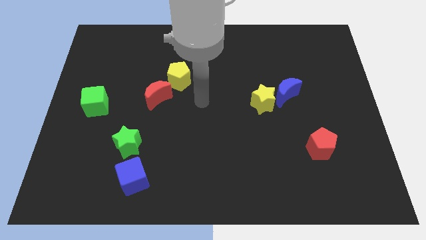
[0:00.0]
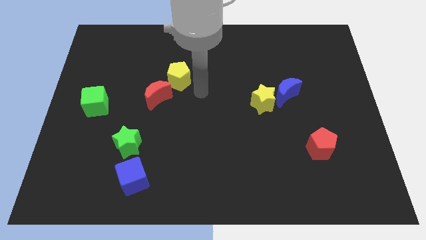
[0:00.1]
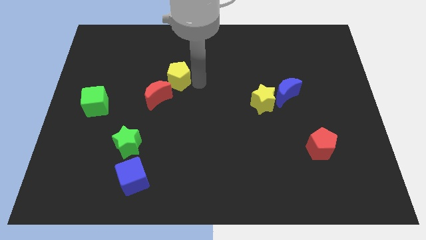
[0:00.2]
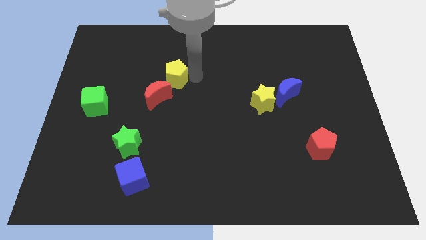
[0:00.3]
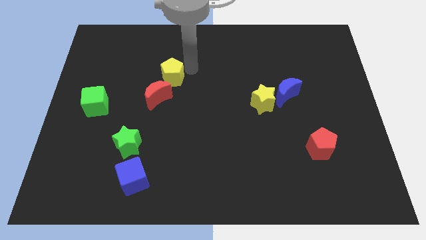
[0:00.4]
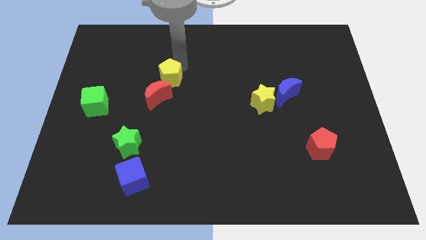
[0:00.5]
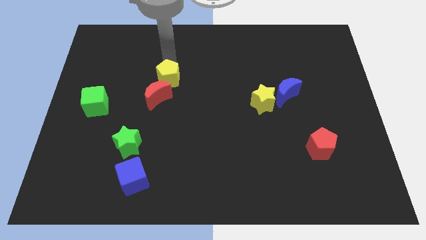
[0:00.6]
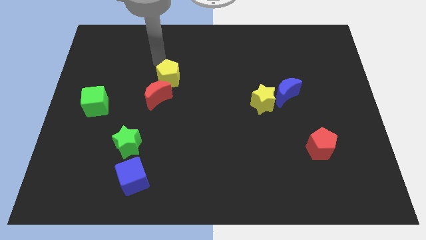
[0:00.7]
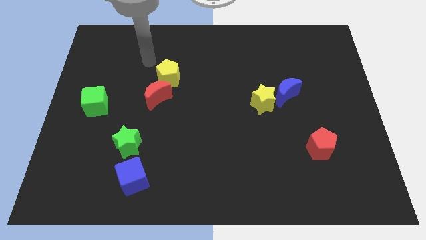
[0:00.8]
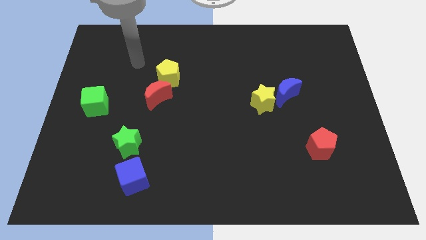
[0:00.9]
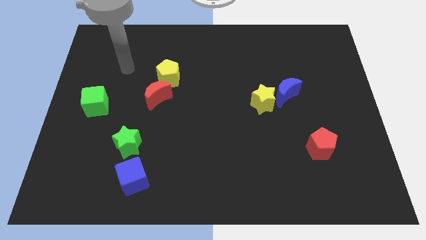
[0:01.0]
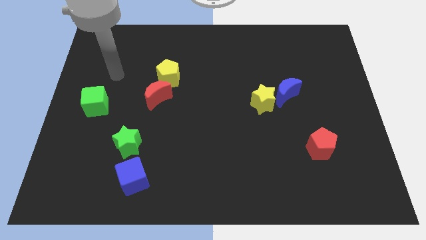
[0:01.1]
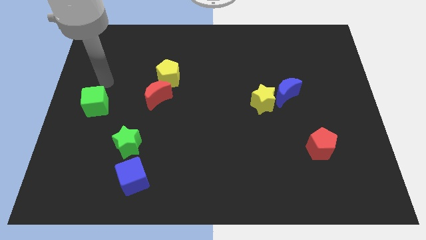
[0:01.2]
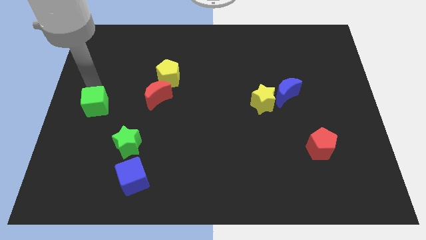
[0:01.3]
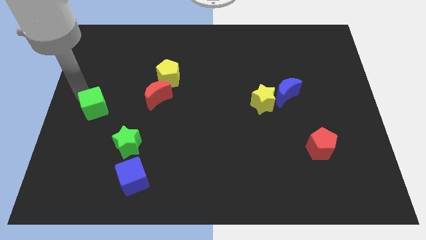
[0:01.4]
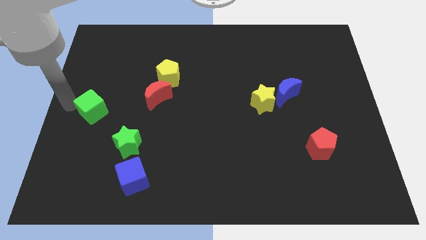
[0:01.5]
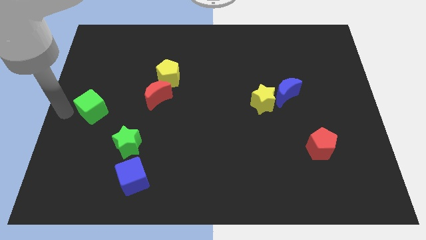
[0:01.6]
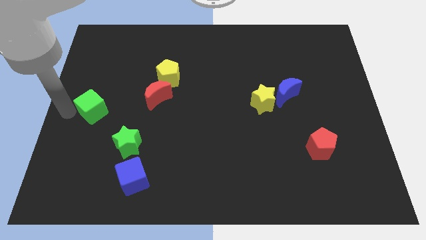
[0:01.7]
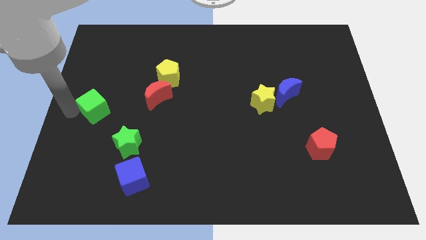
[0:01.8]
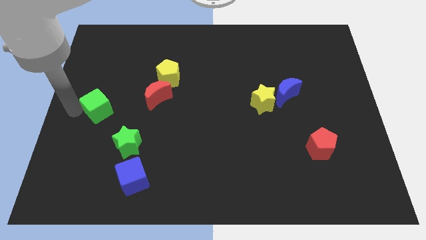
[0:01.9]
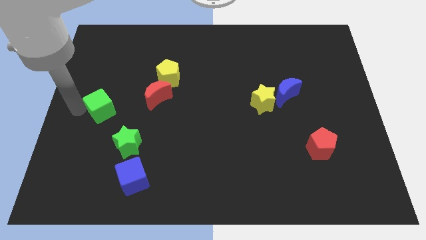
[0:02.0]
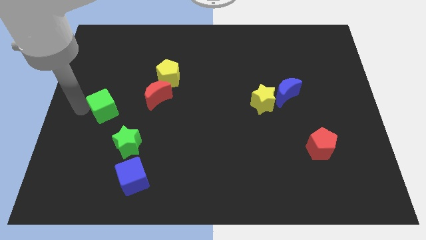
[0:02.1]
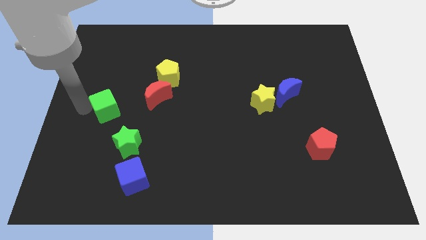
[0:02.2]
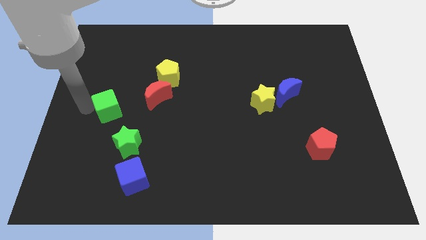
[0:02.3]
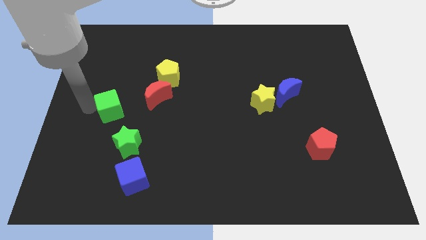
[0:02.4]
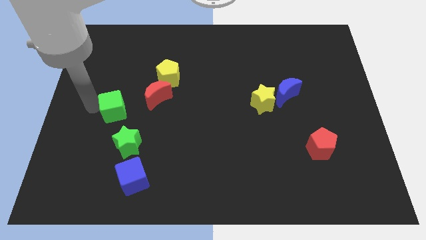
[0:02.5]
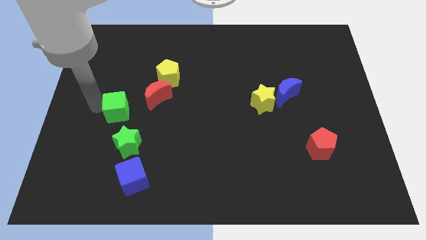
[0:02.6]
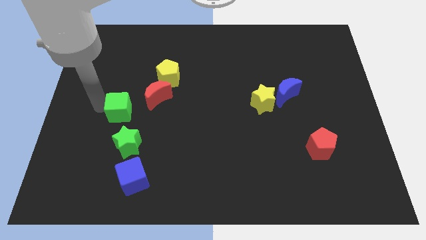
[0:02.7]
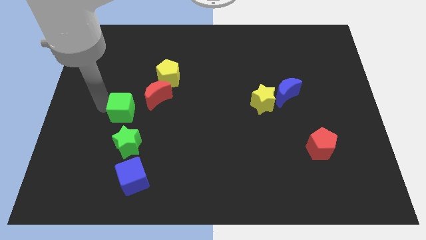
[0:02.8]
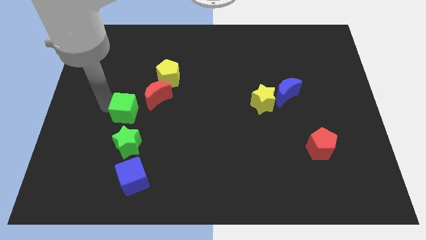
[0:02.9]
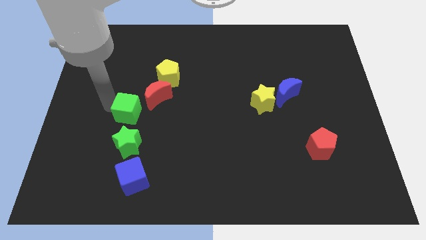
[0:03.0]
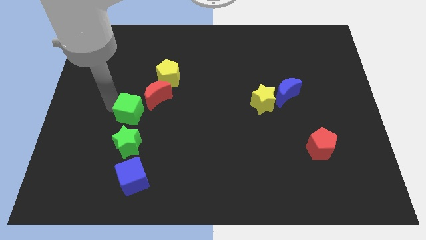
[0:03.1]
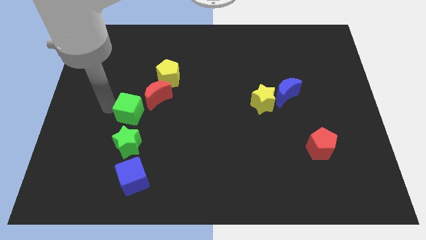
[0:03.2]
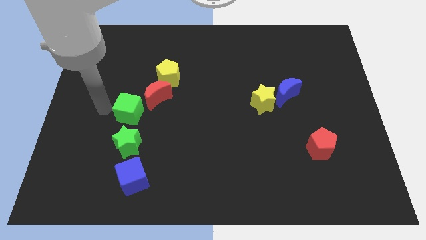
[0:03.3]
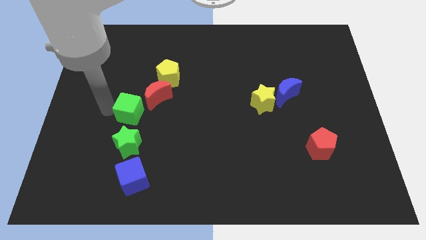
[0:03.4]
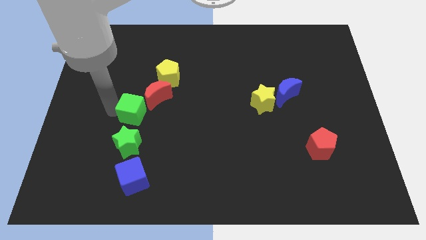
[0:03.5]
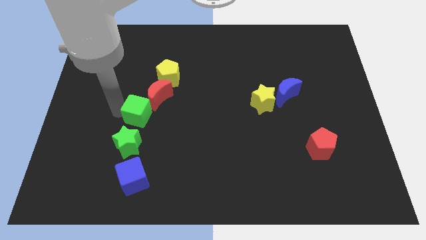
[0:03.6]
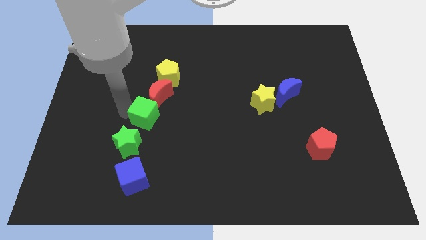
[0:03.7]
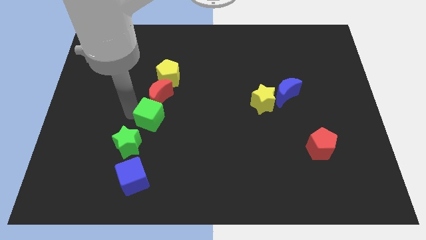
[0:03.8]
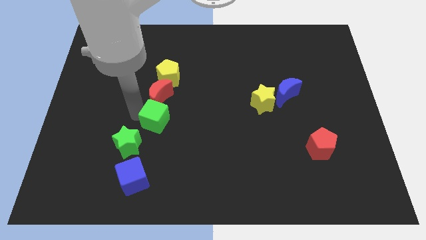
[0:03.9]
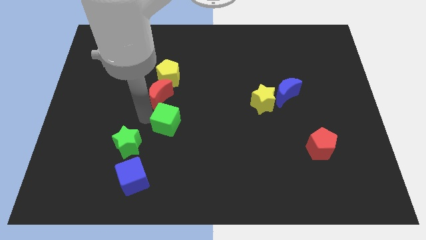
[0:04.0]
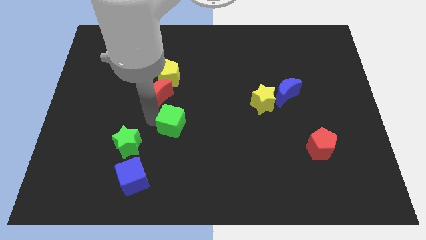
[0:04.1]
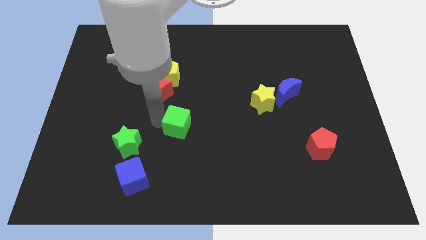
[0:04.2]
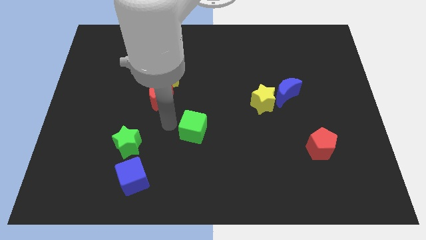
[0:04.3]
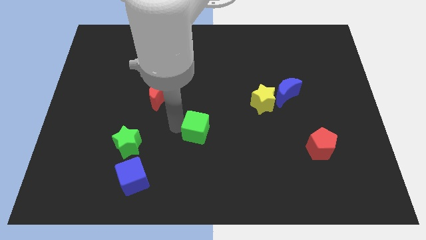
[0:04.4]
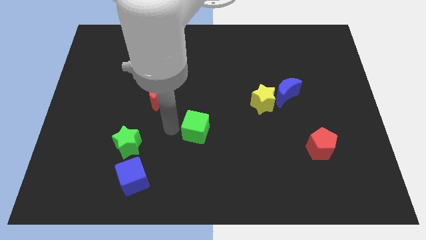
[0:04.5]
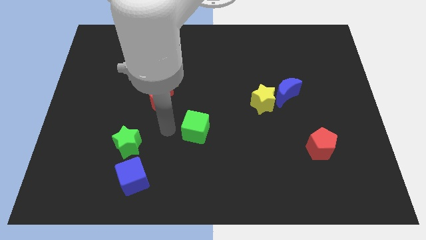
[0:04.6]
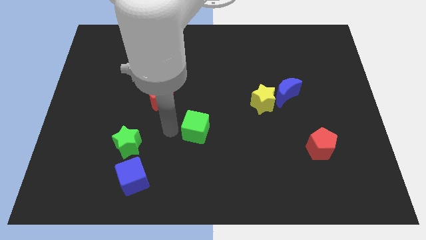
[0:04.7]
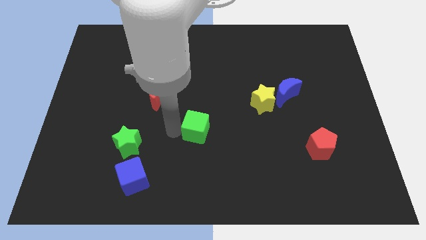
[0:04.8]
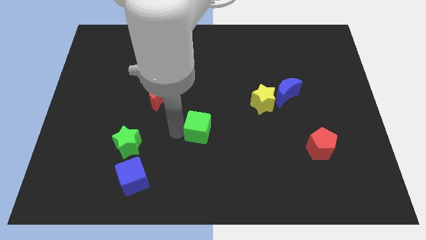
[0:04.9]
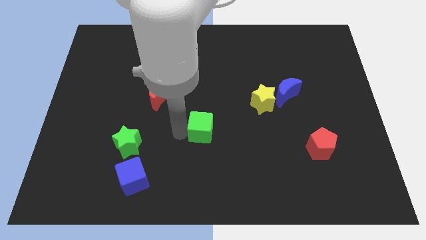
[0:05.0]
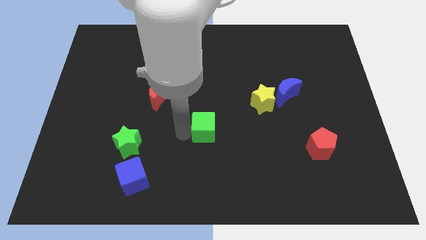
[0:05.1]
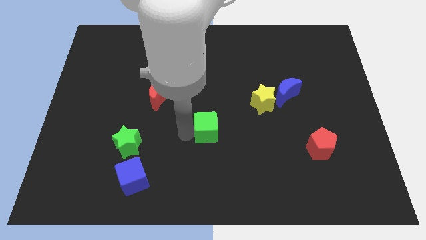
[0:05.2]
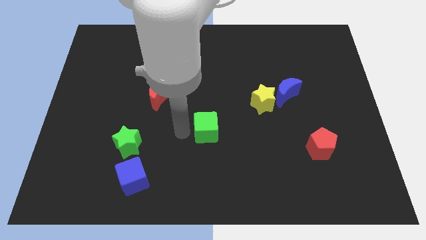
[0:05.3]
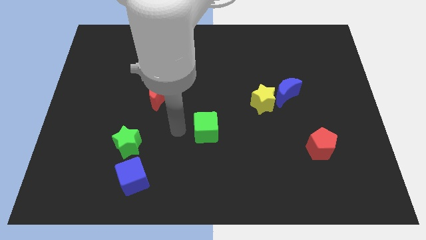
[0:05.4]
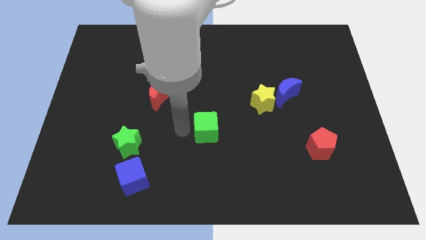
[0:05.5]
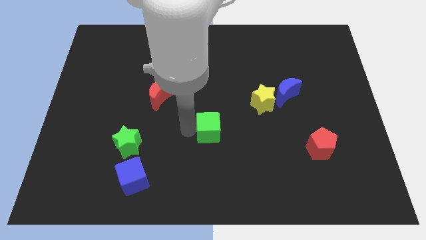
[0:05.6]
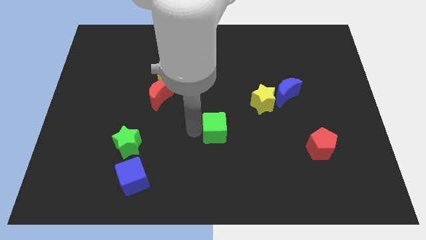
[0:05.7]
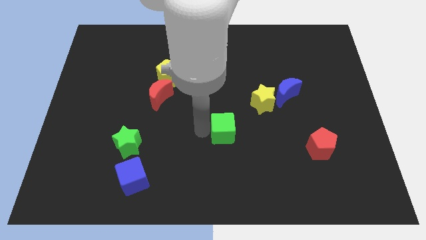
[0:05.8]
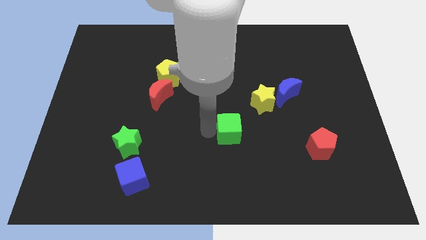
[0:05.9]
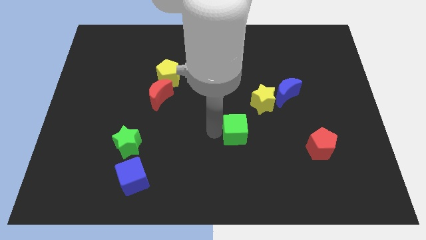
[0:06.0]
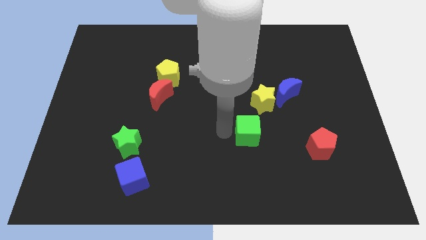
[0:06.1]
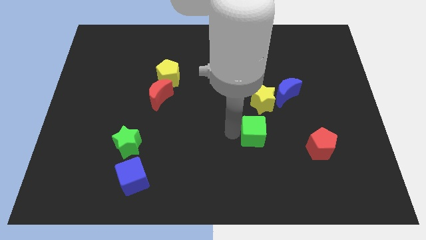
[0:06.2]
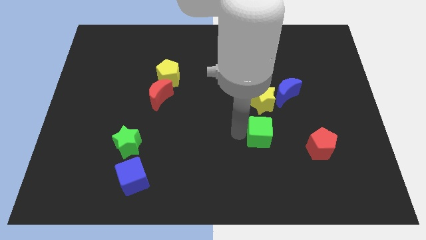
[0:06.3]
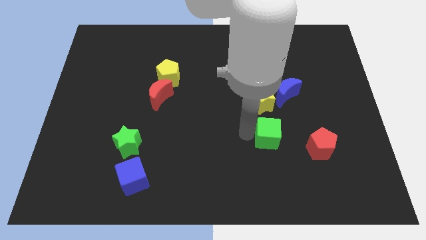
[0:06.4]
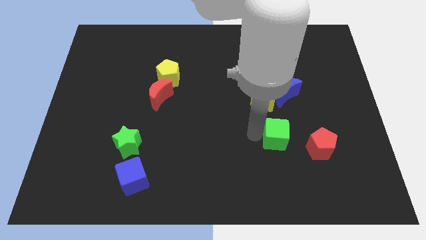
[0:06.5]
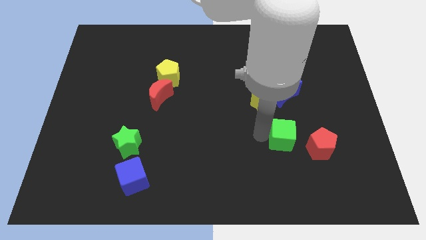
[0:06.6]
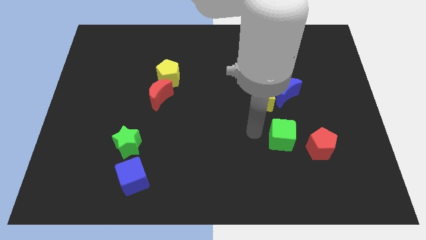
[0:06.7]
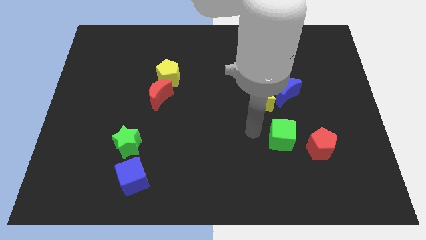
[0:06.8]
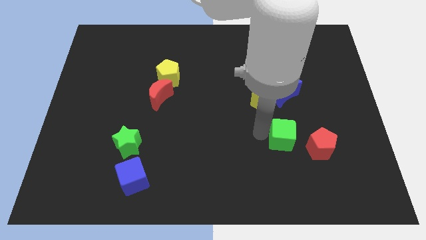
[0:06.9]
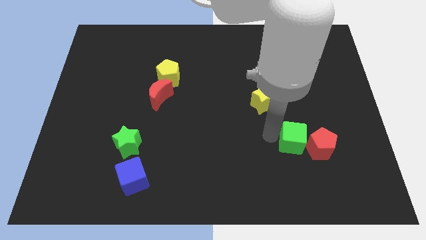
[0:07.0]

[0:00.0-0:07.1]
move the green cube towards the red pentagon

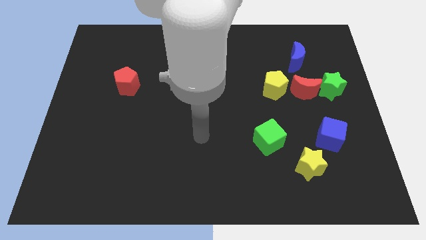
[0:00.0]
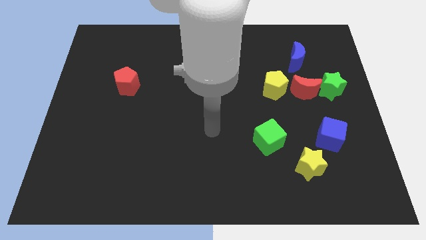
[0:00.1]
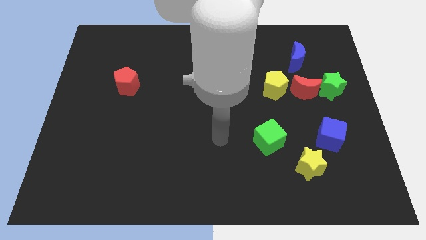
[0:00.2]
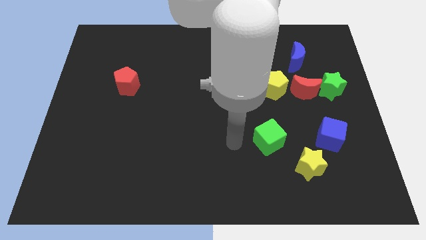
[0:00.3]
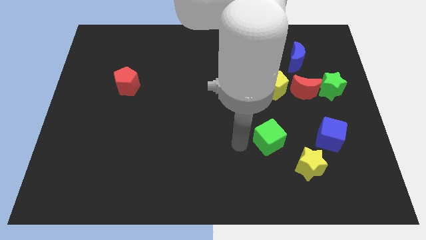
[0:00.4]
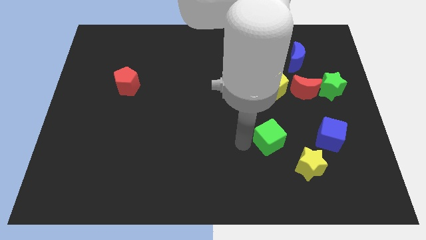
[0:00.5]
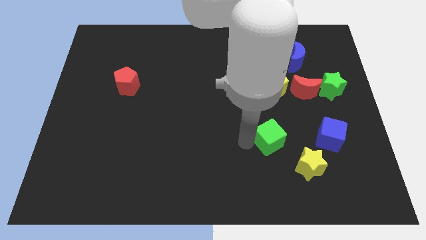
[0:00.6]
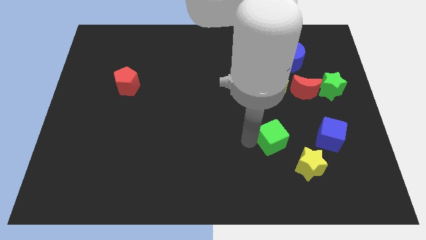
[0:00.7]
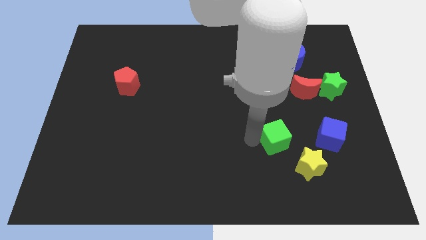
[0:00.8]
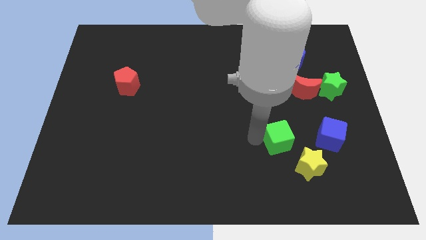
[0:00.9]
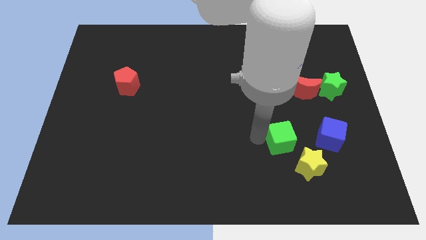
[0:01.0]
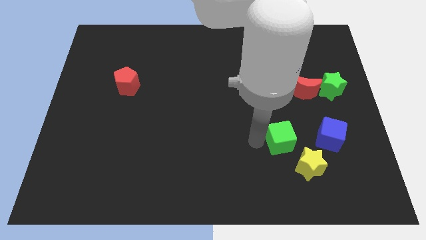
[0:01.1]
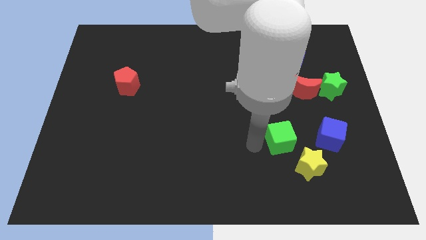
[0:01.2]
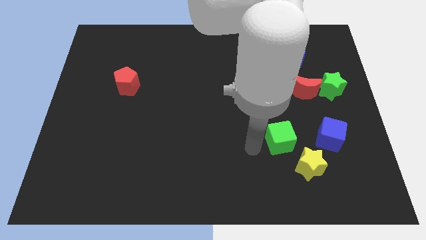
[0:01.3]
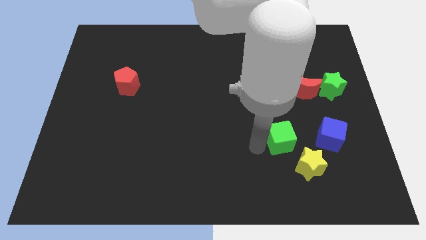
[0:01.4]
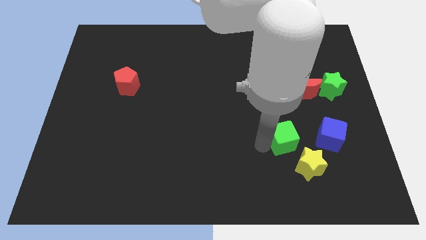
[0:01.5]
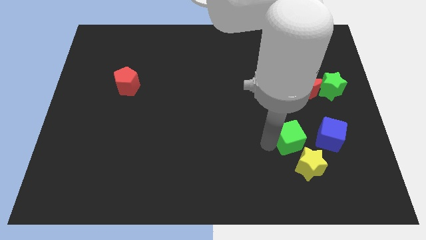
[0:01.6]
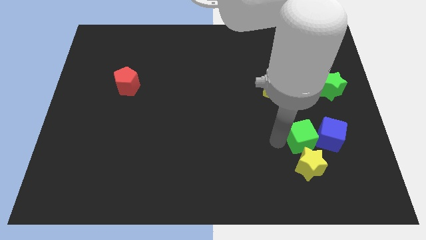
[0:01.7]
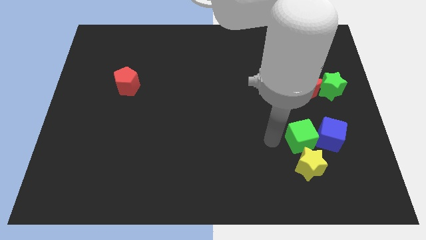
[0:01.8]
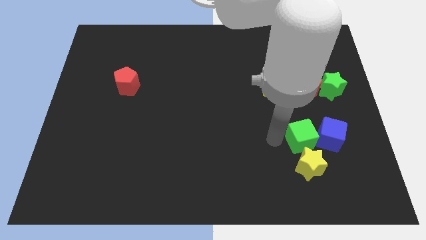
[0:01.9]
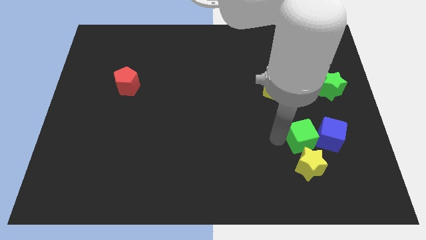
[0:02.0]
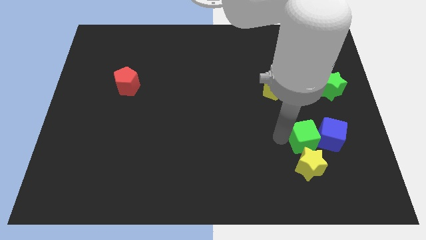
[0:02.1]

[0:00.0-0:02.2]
slide the green cube next to the blue cube
